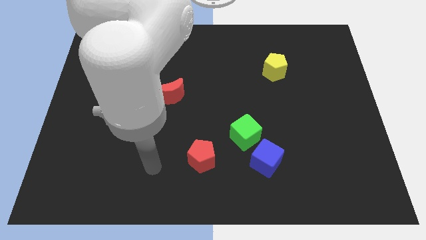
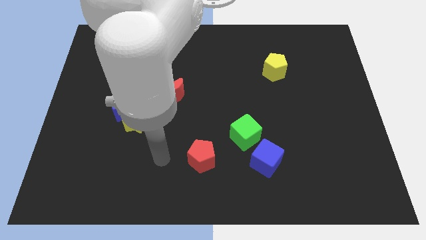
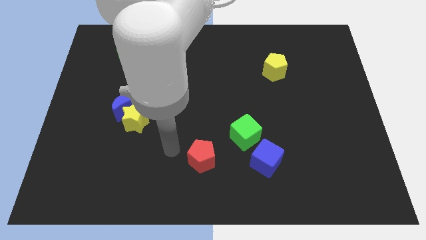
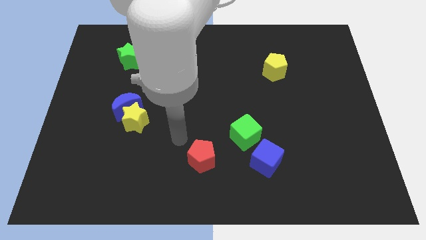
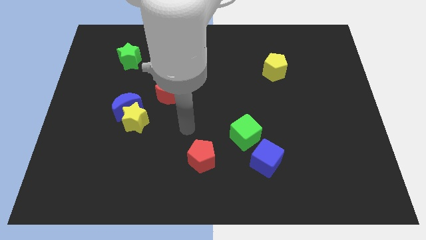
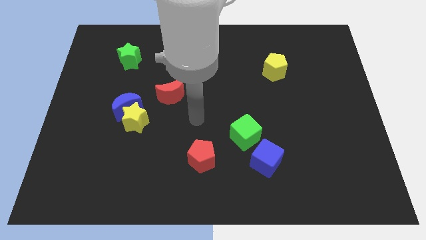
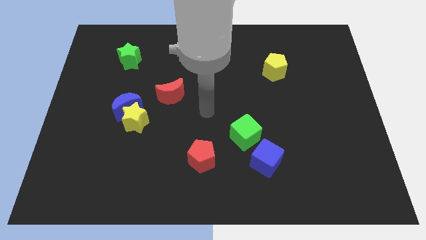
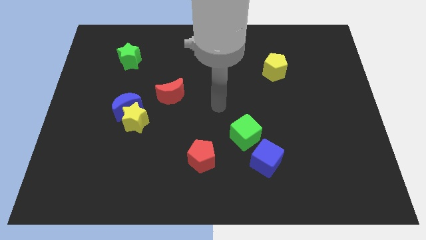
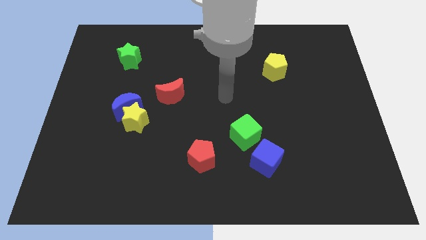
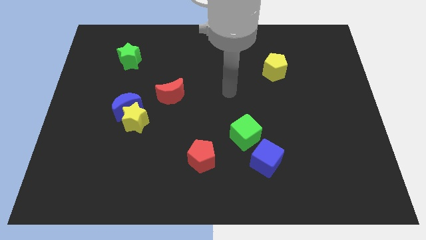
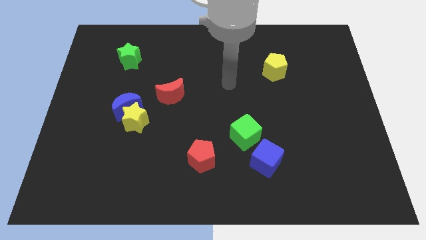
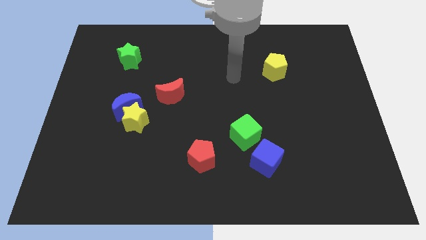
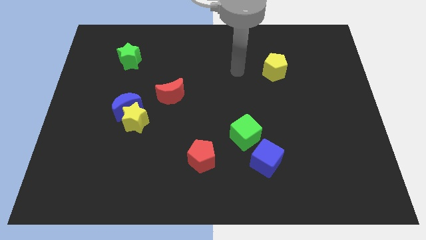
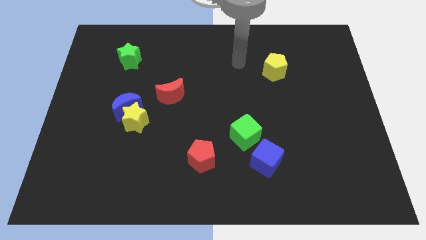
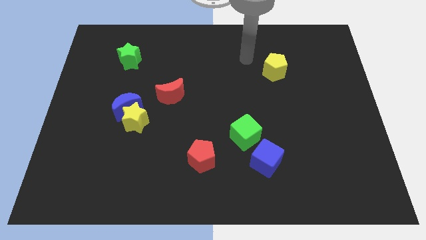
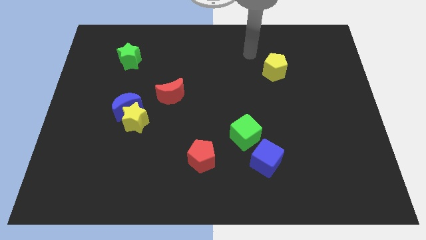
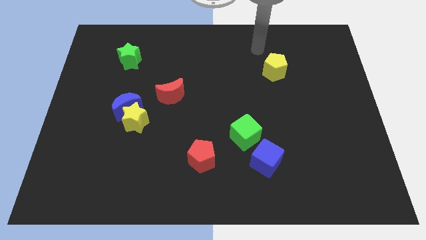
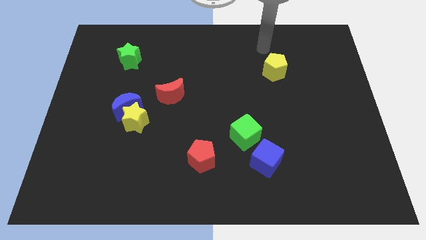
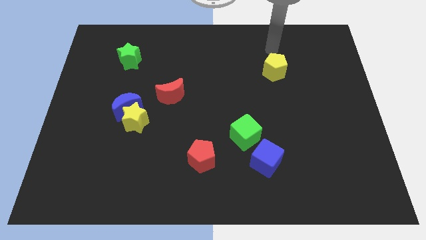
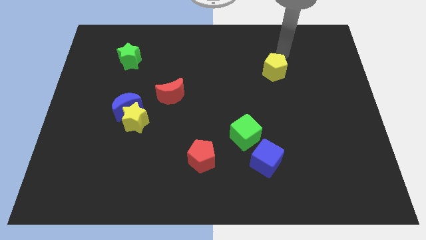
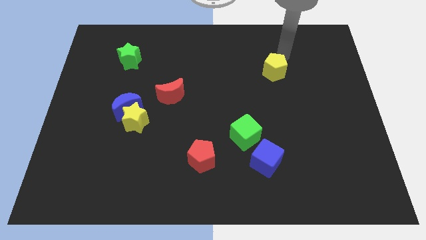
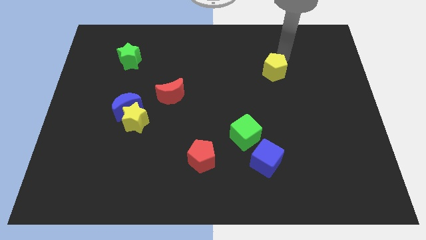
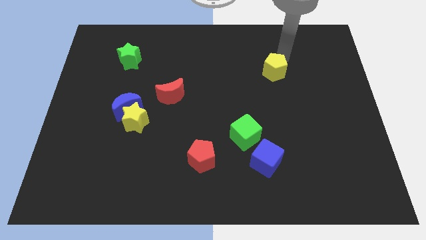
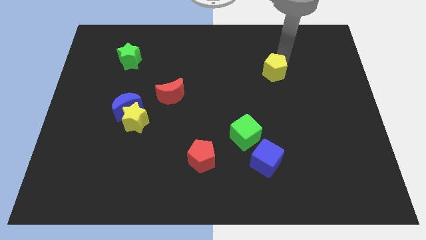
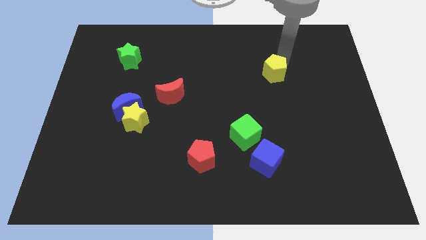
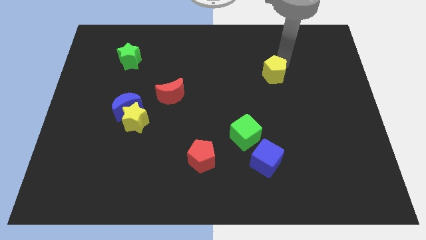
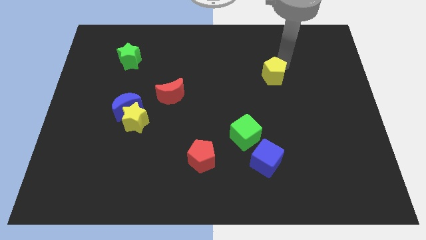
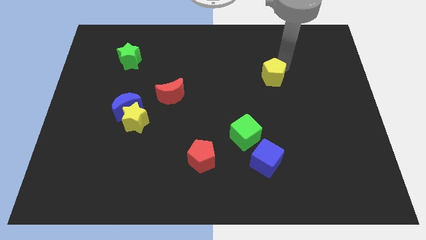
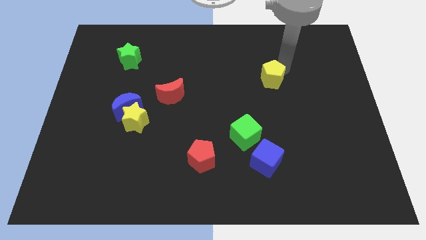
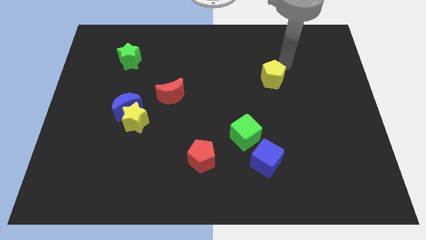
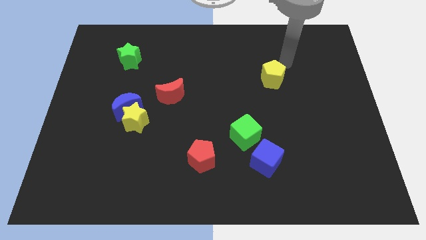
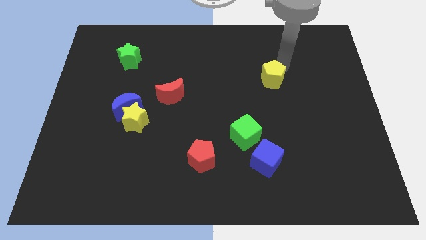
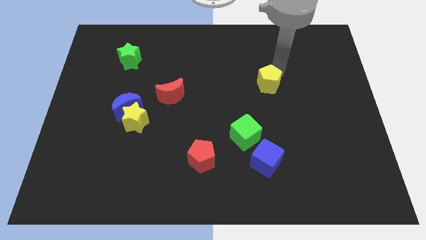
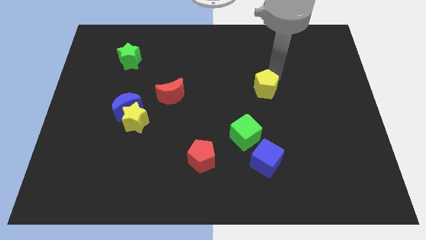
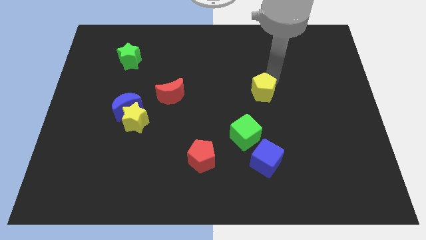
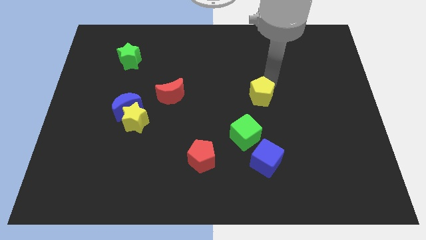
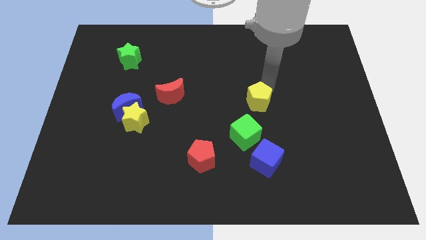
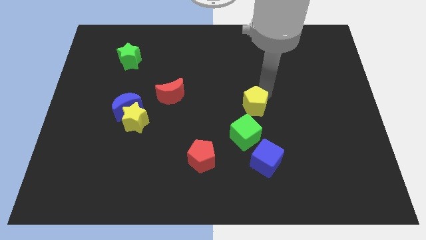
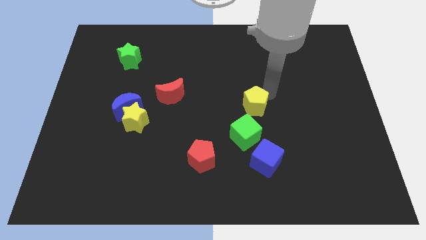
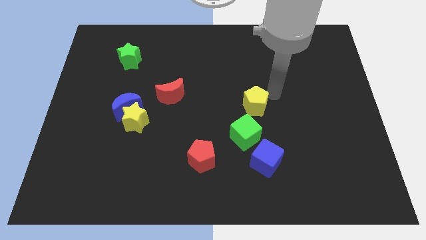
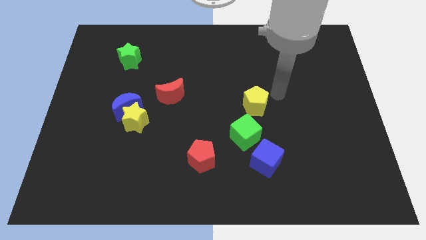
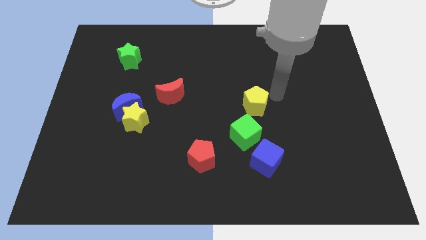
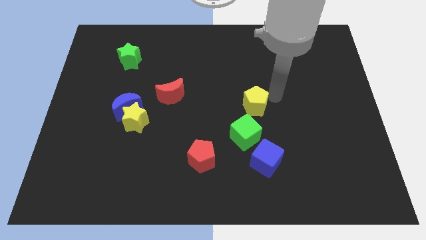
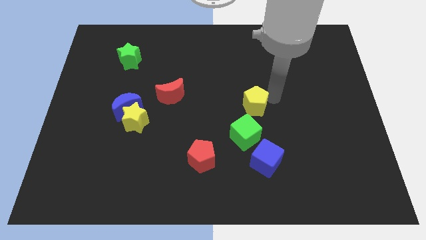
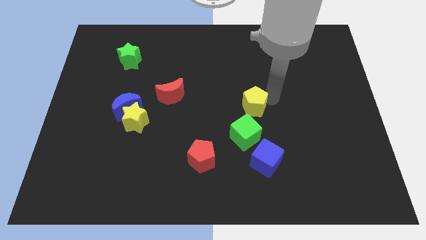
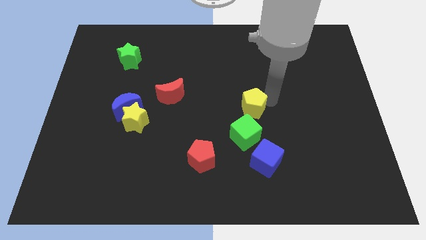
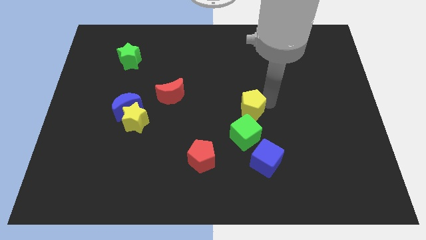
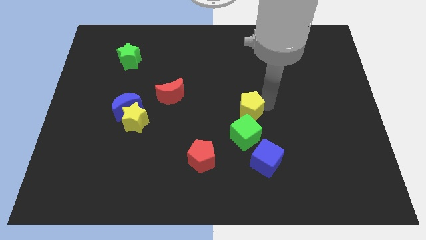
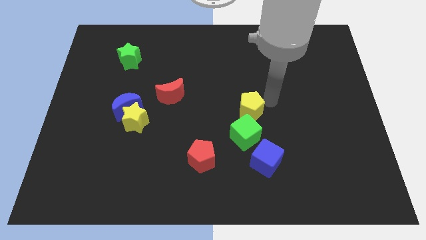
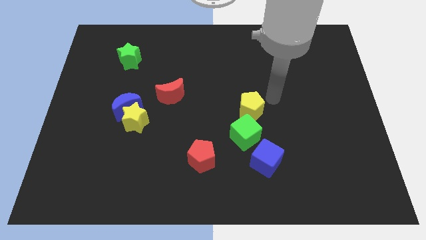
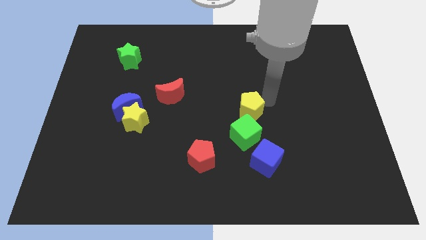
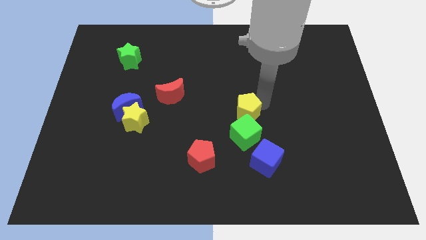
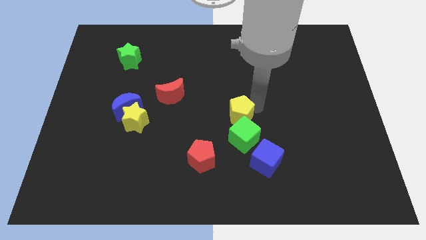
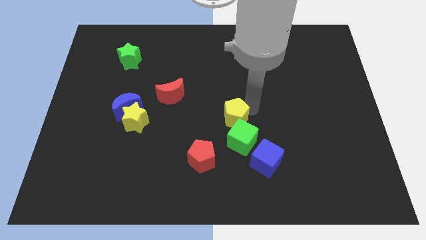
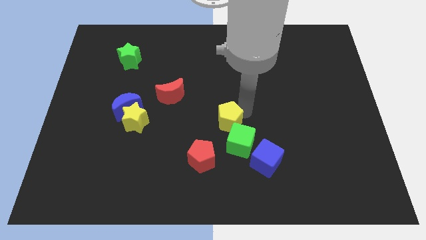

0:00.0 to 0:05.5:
move the yellow pentagon to the top right side of the red pentagon

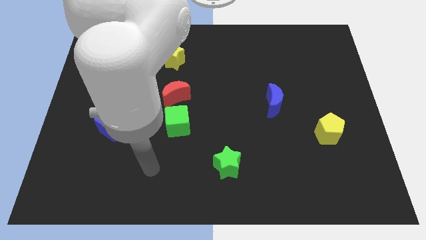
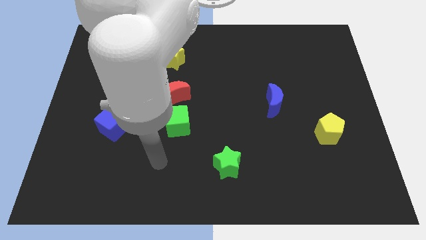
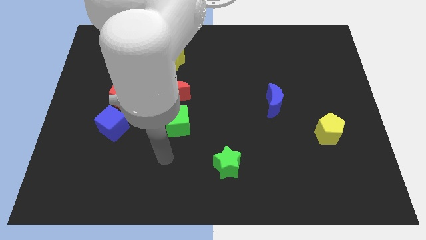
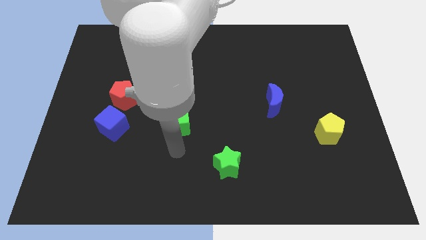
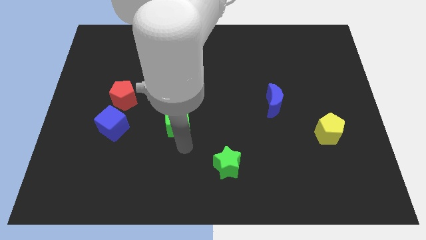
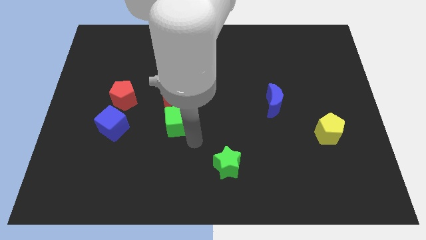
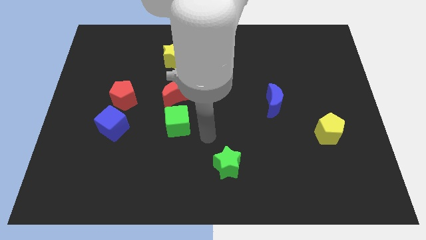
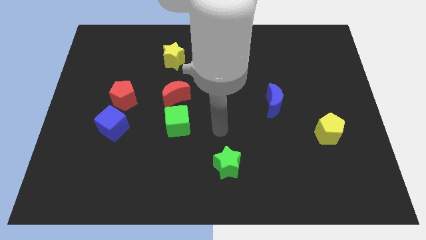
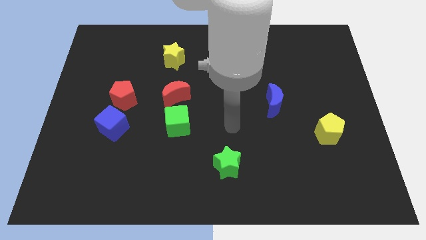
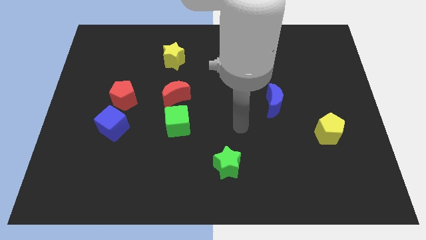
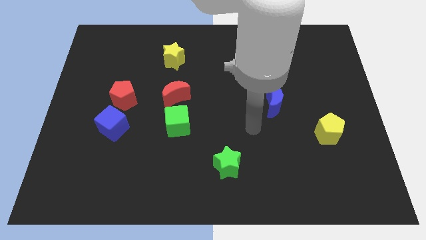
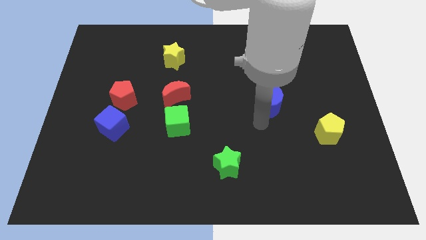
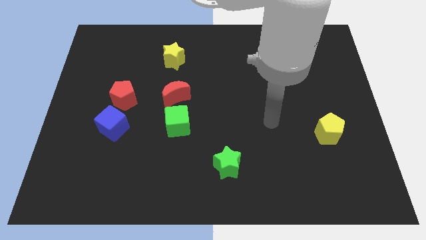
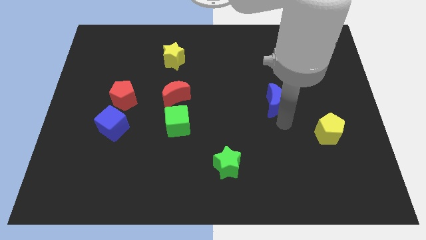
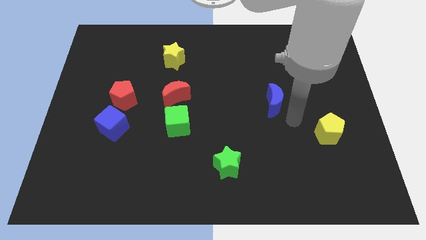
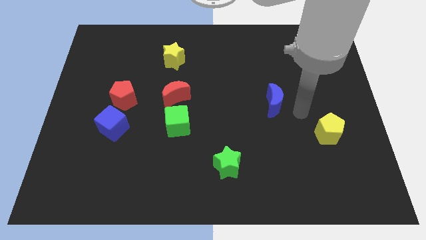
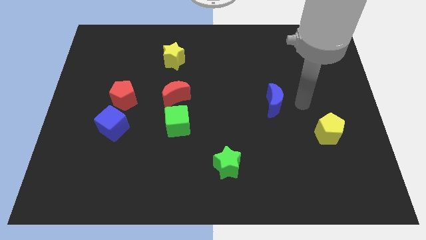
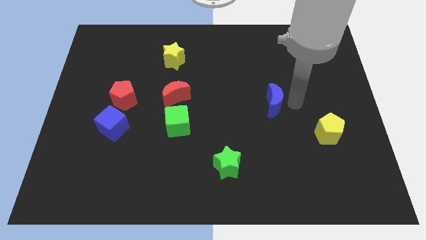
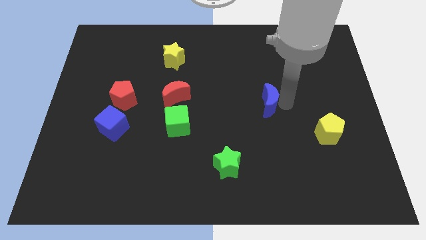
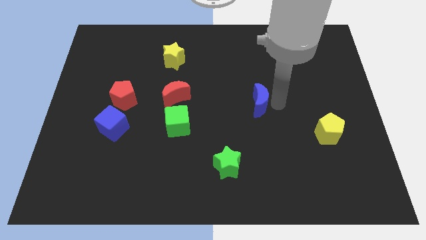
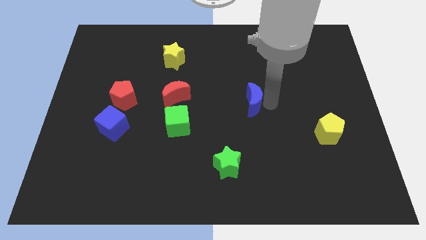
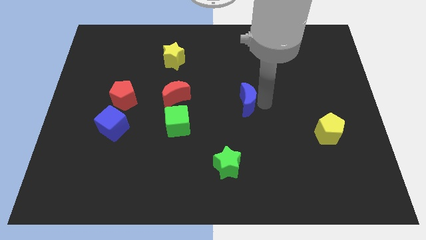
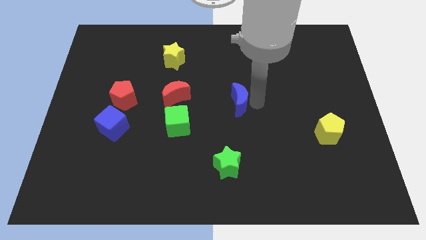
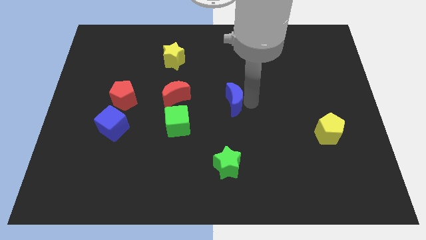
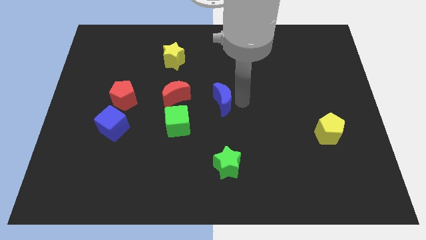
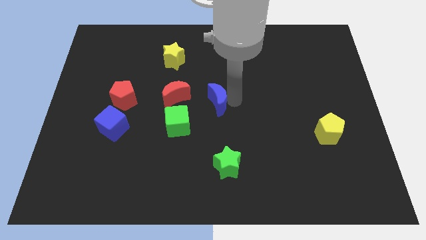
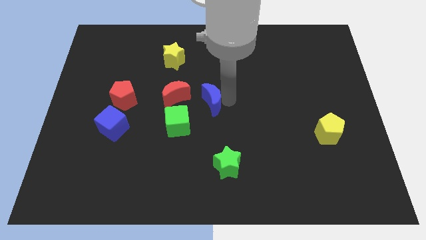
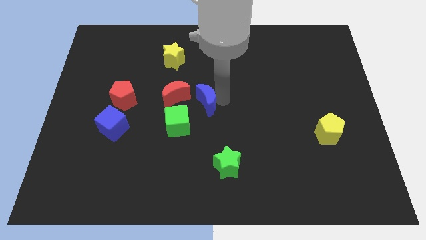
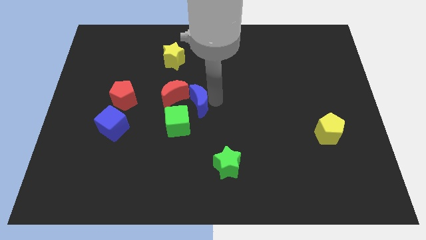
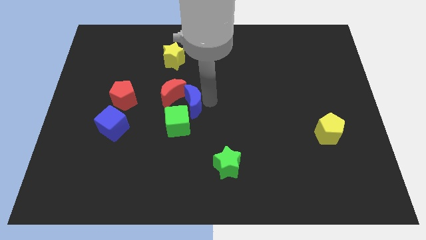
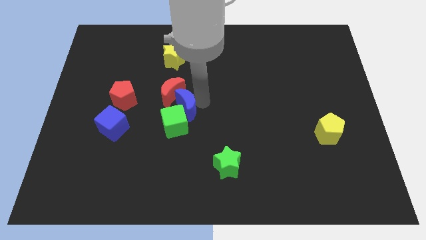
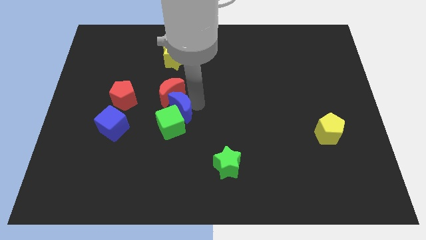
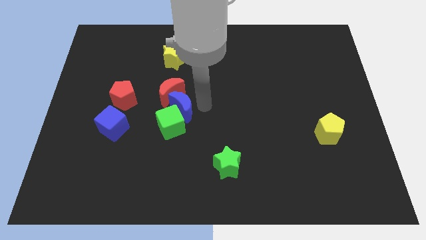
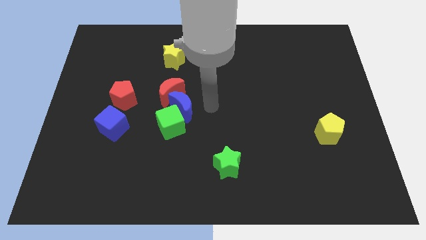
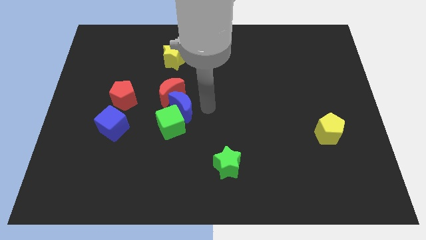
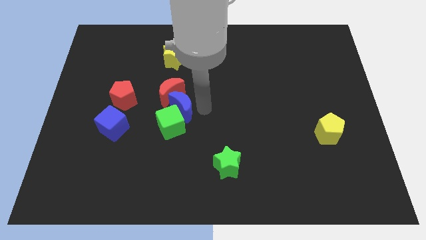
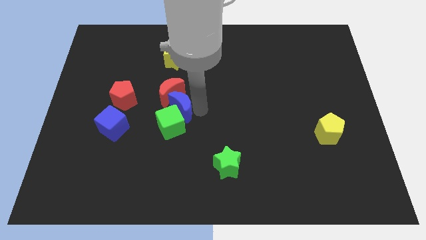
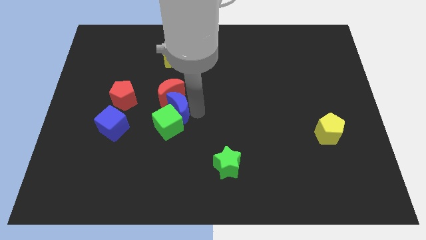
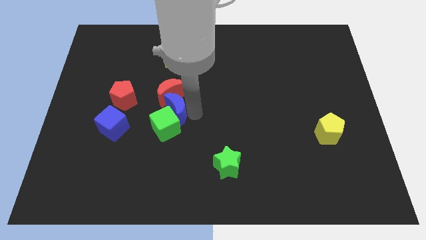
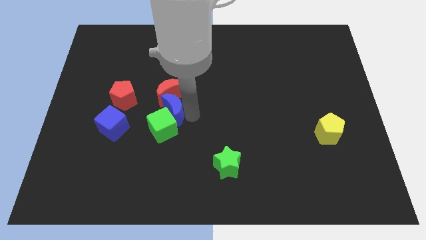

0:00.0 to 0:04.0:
slide the blue moon diagonally down and to the left of the red moon
